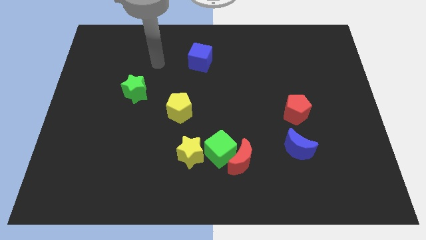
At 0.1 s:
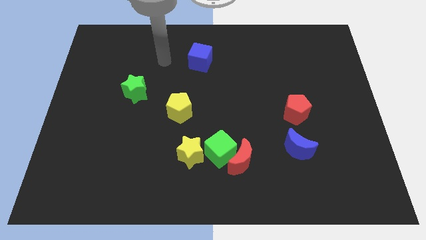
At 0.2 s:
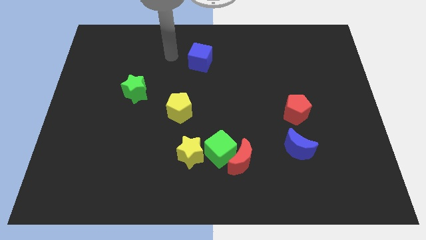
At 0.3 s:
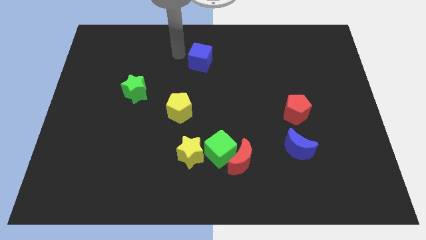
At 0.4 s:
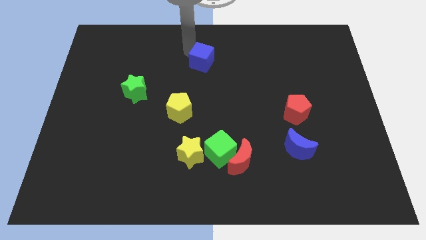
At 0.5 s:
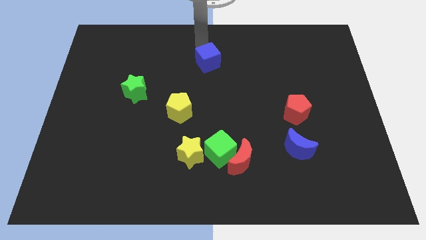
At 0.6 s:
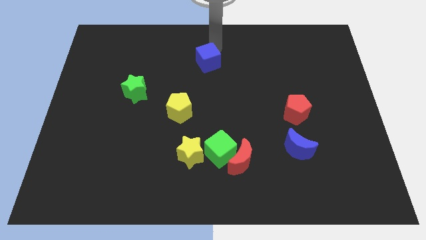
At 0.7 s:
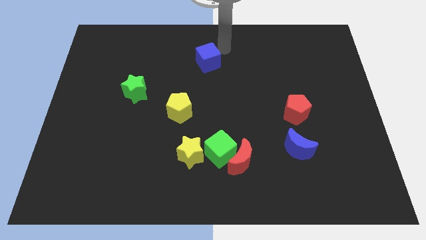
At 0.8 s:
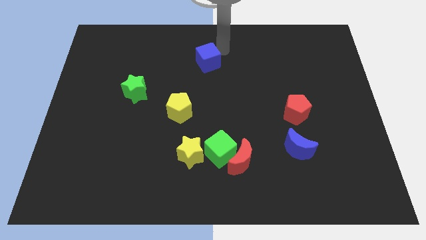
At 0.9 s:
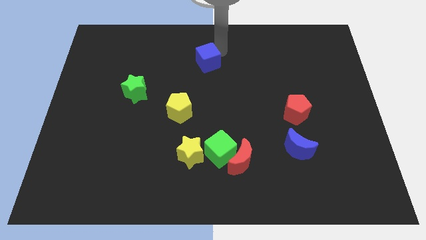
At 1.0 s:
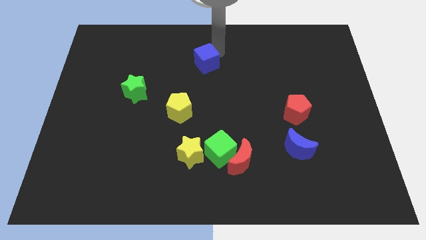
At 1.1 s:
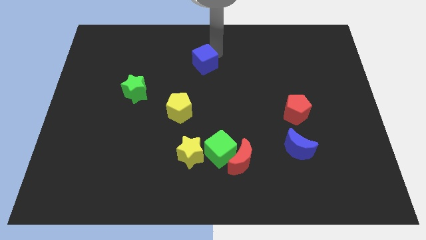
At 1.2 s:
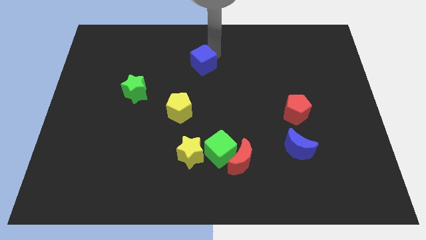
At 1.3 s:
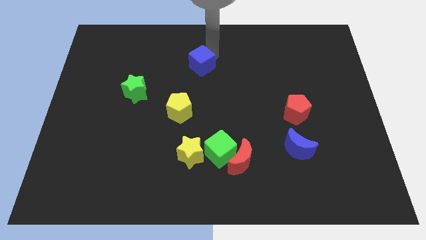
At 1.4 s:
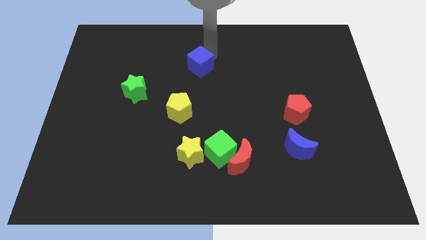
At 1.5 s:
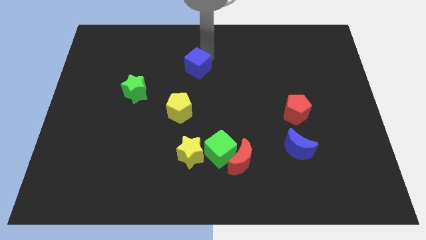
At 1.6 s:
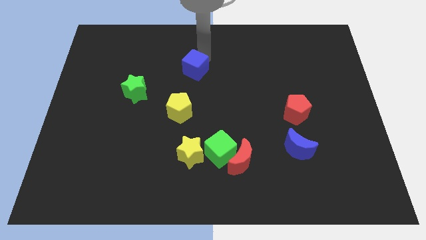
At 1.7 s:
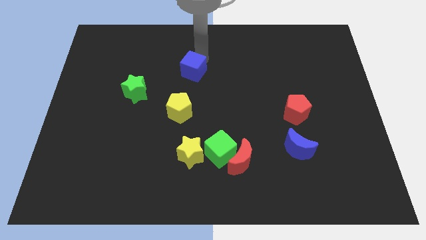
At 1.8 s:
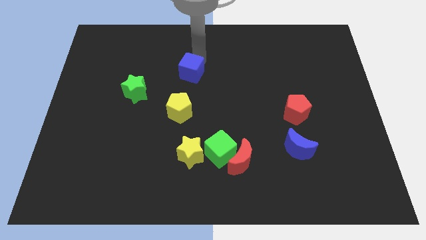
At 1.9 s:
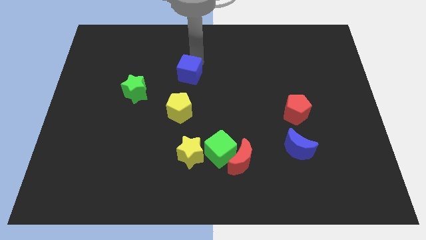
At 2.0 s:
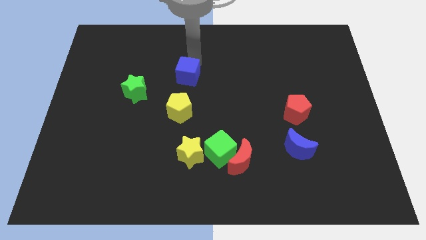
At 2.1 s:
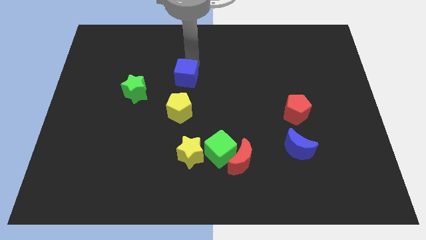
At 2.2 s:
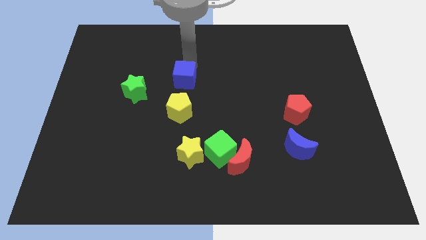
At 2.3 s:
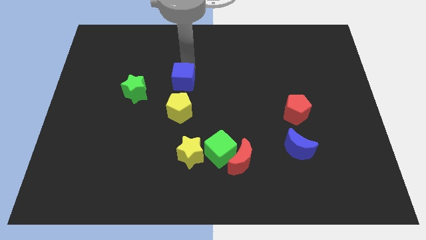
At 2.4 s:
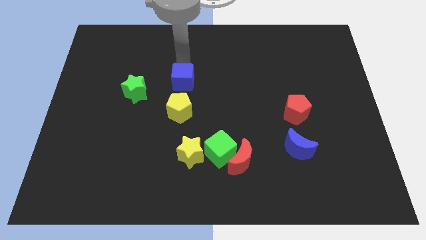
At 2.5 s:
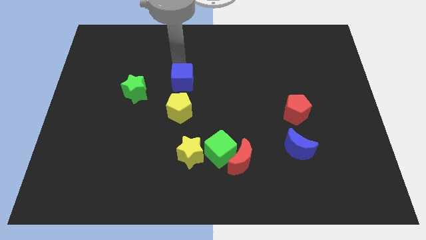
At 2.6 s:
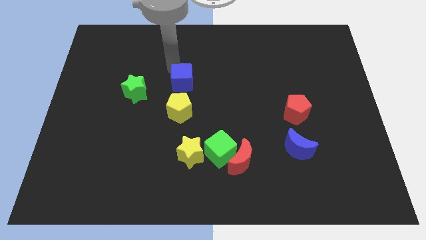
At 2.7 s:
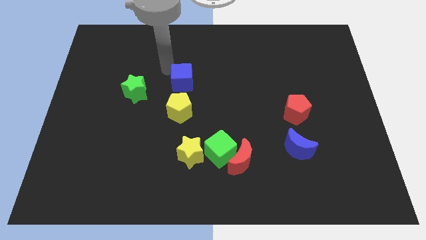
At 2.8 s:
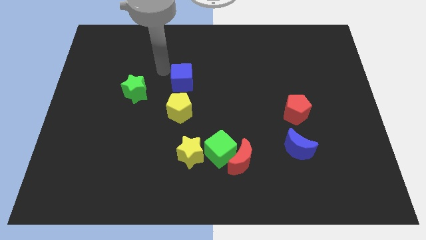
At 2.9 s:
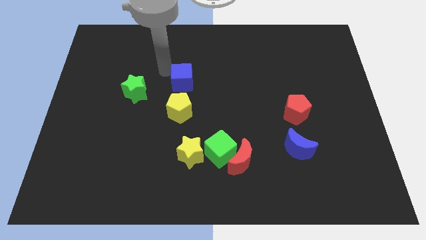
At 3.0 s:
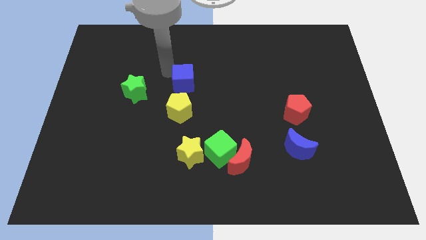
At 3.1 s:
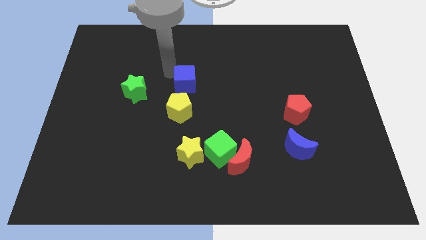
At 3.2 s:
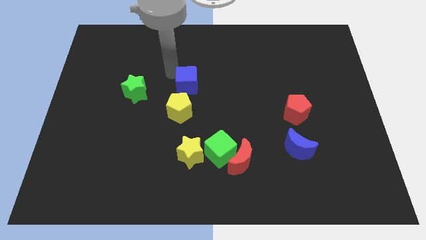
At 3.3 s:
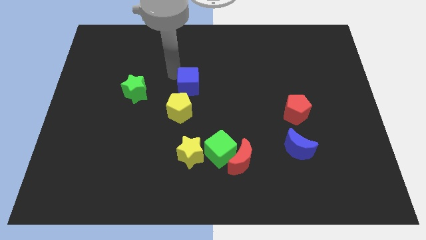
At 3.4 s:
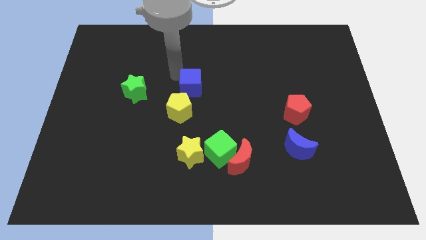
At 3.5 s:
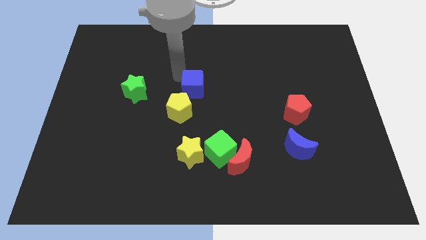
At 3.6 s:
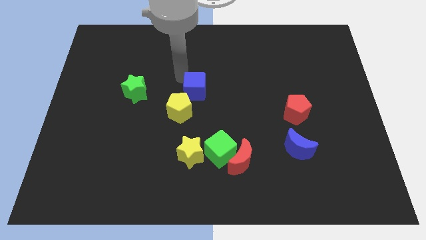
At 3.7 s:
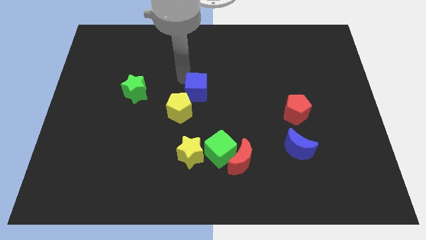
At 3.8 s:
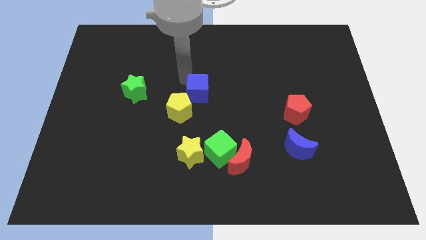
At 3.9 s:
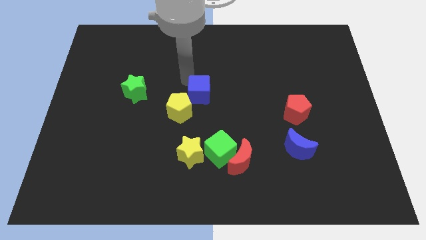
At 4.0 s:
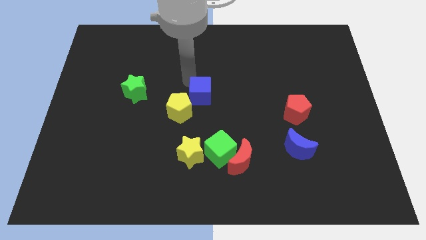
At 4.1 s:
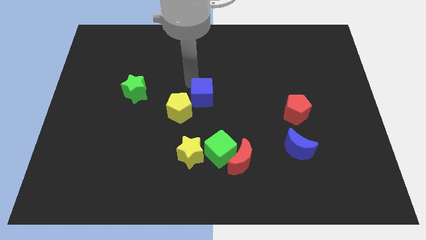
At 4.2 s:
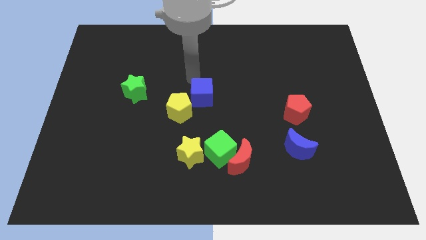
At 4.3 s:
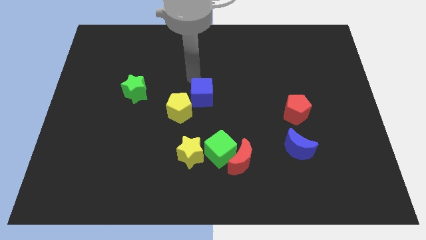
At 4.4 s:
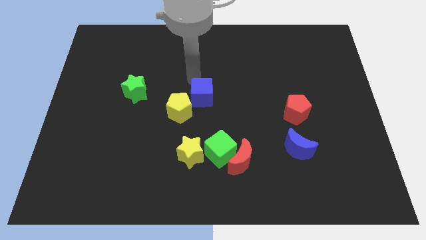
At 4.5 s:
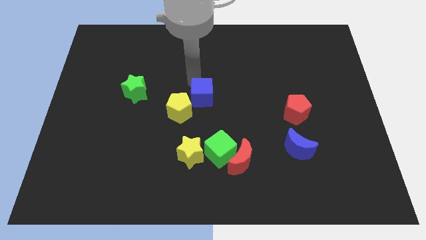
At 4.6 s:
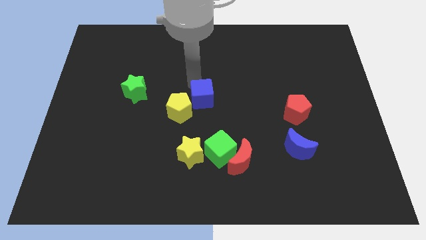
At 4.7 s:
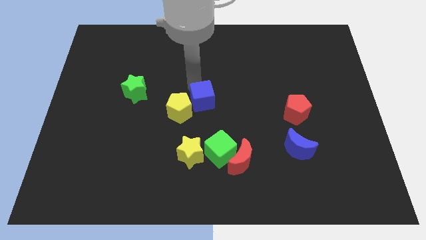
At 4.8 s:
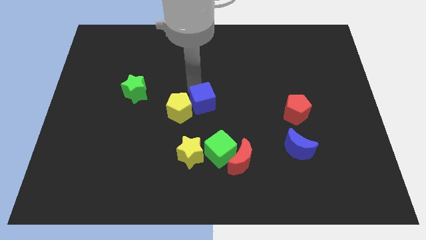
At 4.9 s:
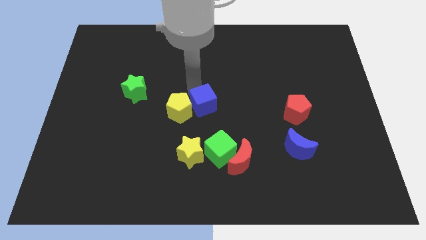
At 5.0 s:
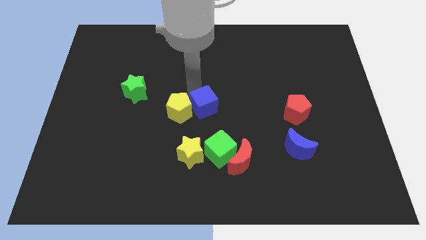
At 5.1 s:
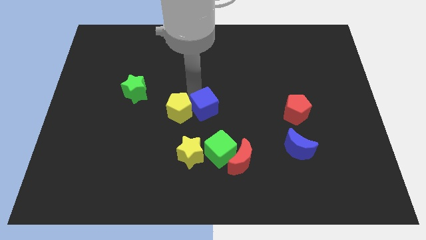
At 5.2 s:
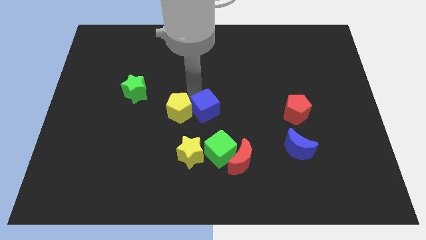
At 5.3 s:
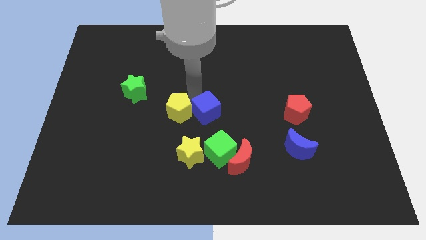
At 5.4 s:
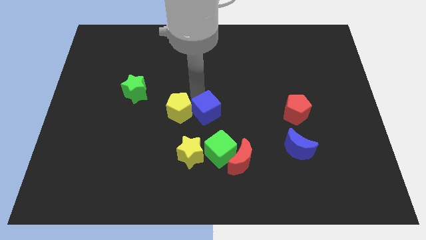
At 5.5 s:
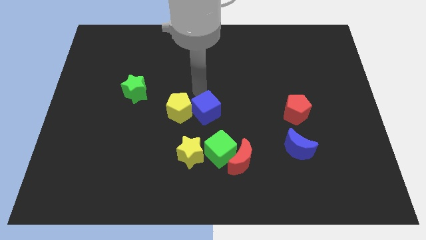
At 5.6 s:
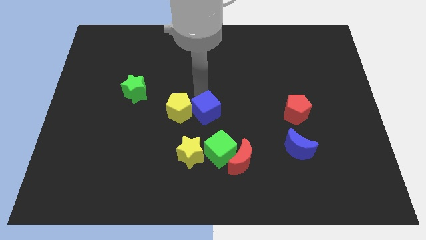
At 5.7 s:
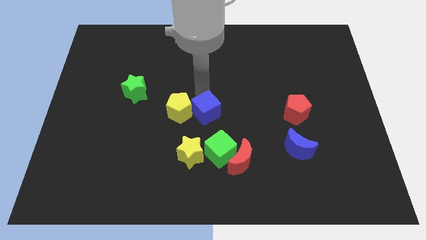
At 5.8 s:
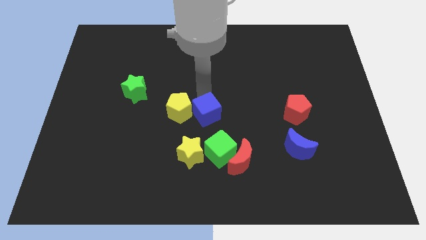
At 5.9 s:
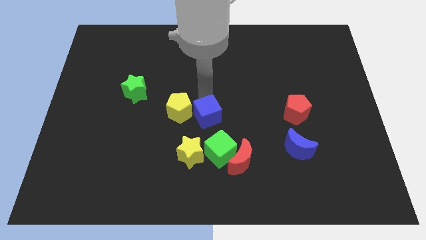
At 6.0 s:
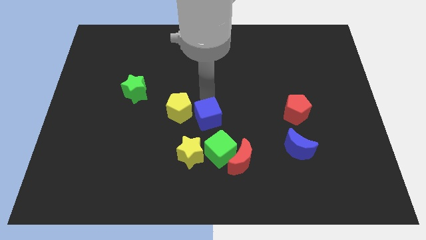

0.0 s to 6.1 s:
slide the blue cube to the top right side of the yellow star

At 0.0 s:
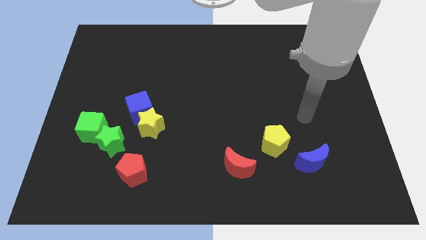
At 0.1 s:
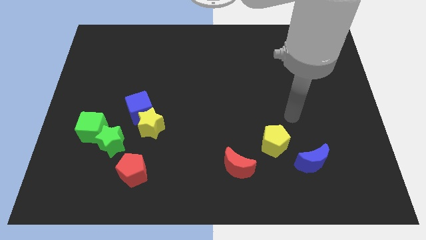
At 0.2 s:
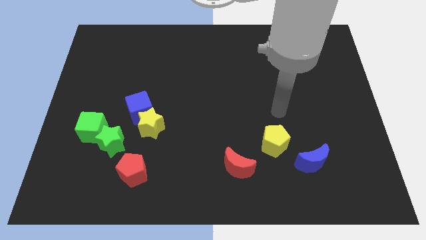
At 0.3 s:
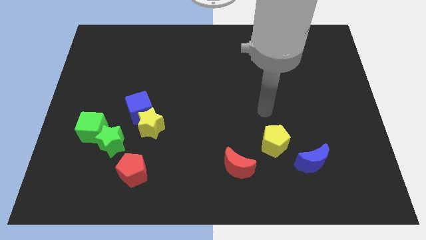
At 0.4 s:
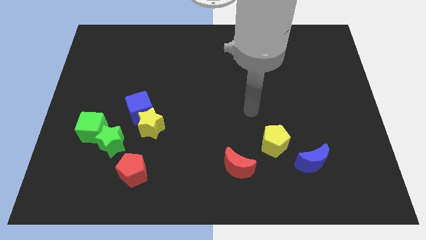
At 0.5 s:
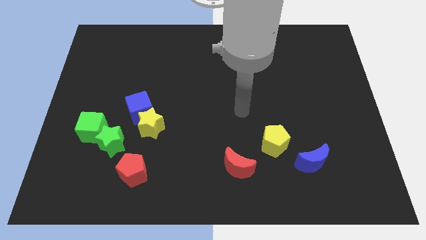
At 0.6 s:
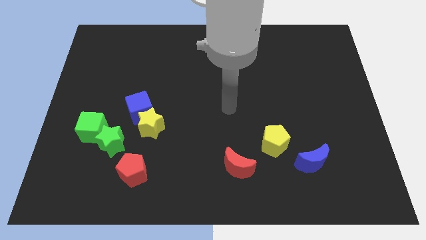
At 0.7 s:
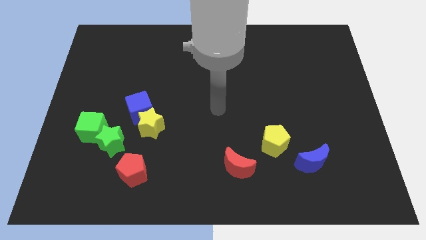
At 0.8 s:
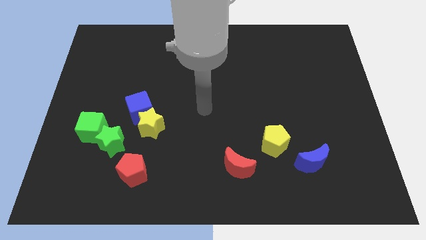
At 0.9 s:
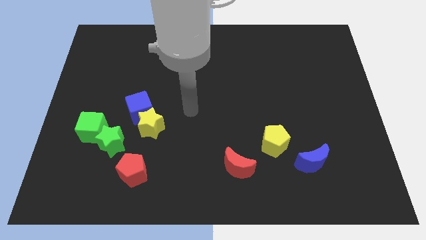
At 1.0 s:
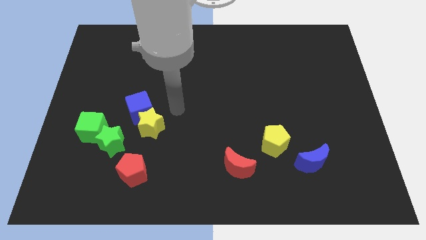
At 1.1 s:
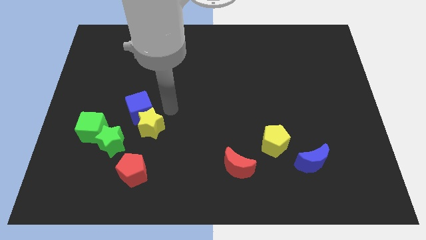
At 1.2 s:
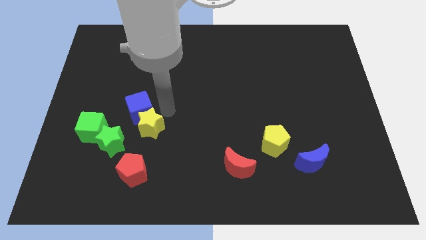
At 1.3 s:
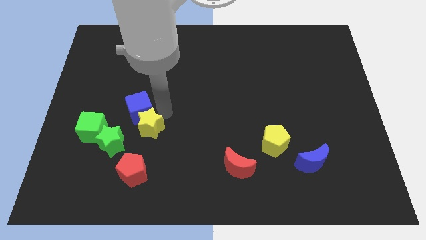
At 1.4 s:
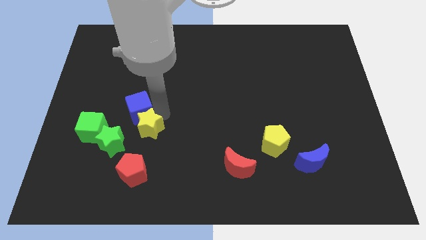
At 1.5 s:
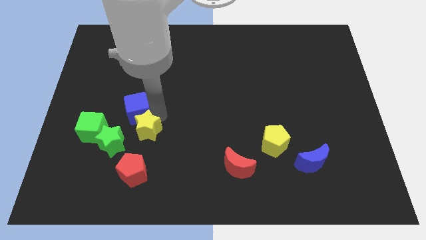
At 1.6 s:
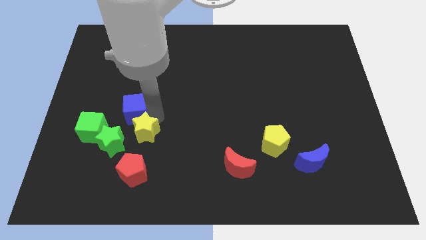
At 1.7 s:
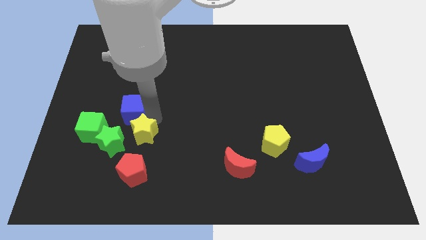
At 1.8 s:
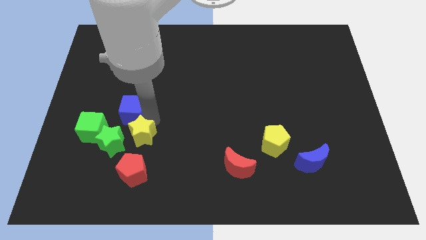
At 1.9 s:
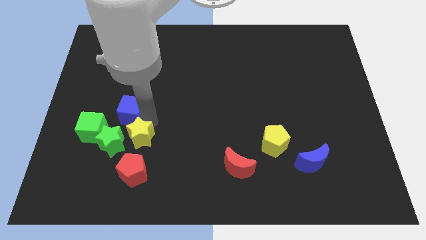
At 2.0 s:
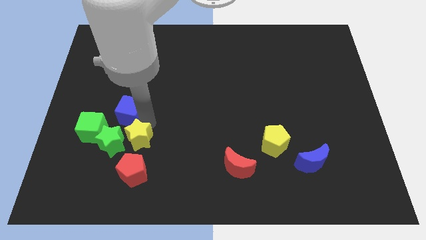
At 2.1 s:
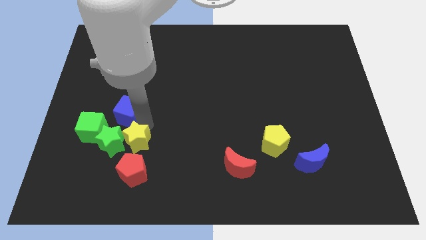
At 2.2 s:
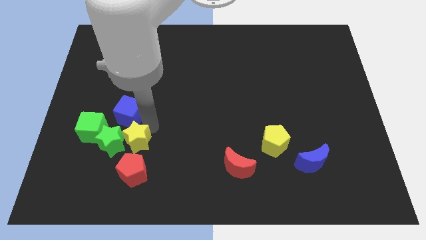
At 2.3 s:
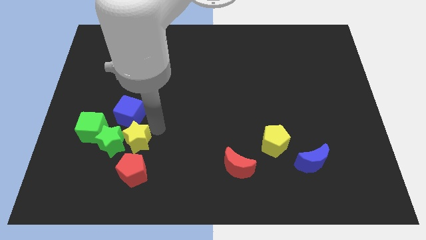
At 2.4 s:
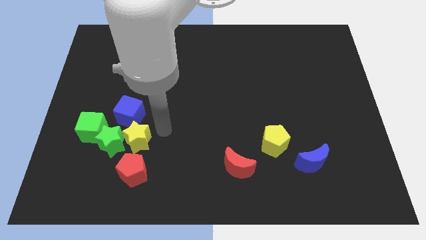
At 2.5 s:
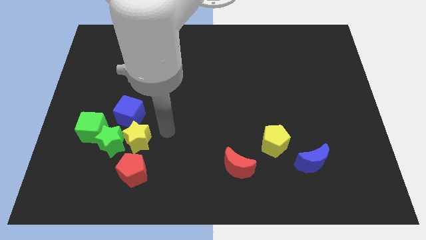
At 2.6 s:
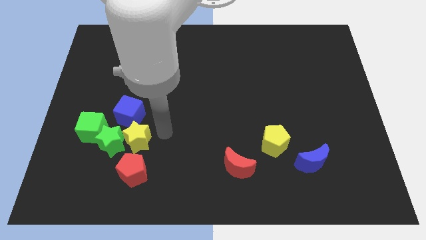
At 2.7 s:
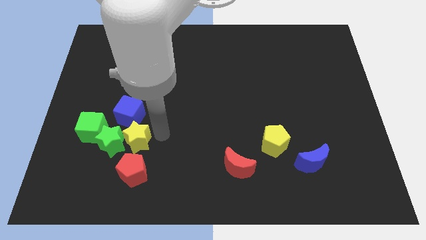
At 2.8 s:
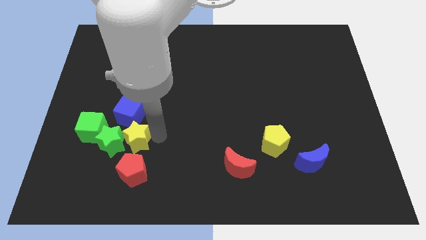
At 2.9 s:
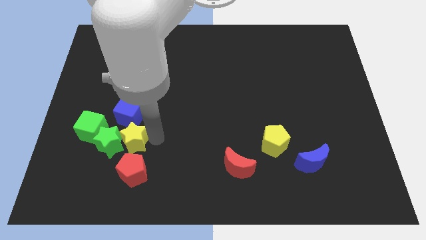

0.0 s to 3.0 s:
put the yellow star to the bottom right of the green cube
